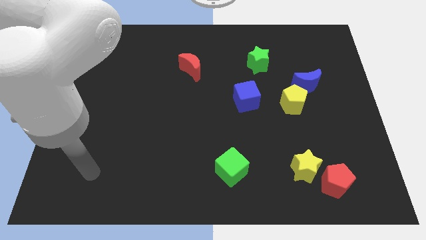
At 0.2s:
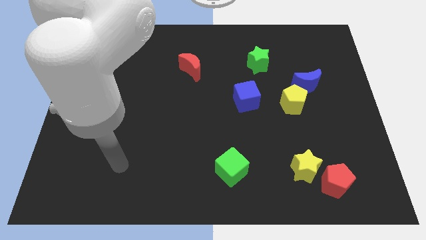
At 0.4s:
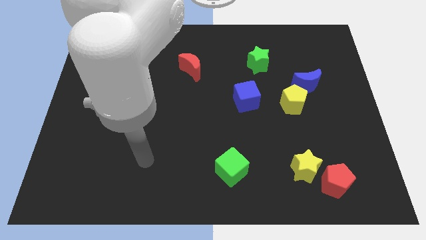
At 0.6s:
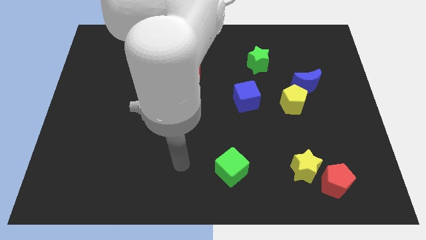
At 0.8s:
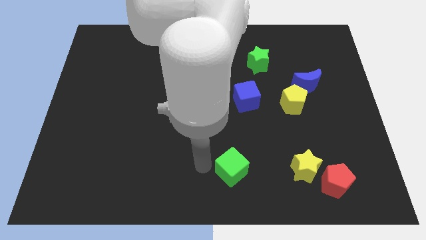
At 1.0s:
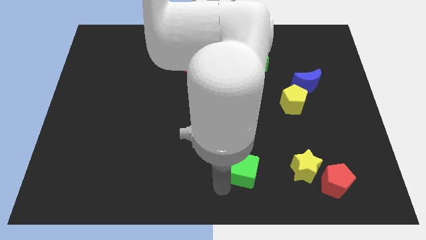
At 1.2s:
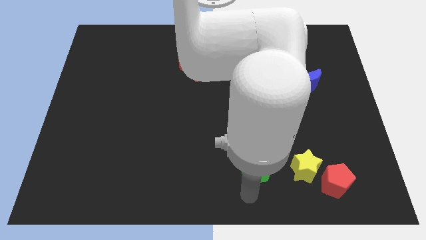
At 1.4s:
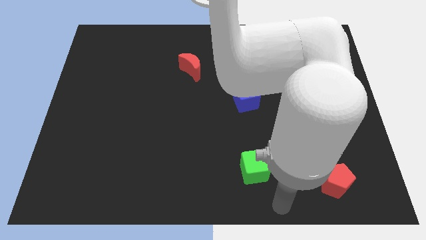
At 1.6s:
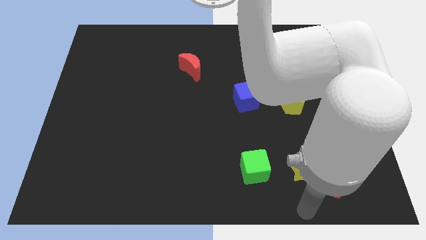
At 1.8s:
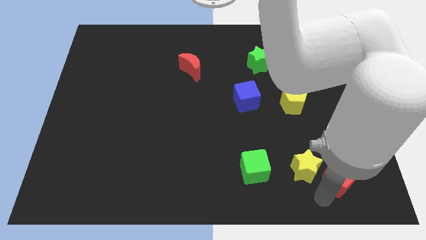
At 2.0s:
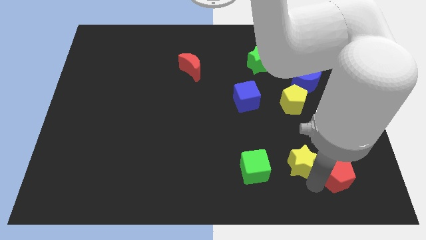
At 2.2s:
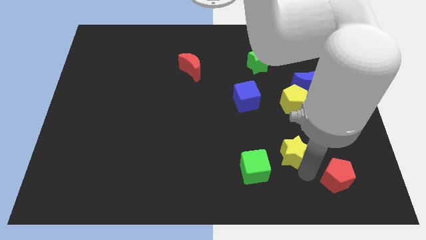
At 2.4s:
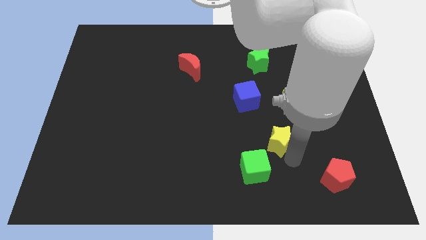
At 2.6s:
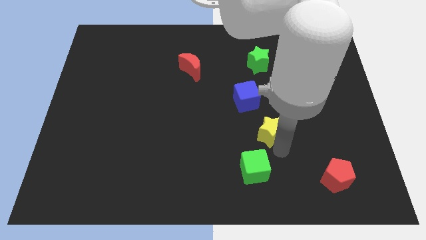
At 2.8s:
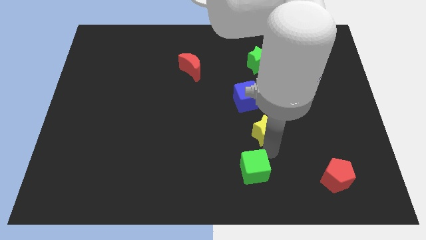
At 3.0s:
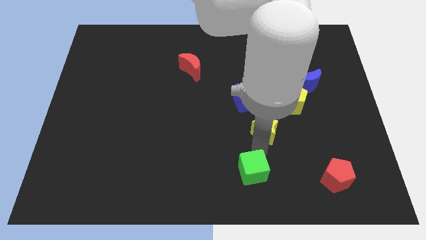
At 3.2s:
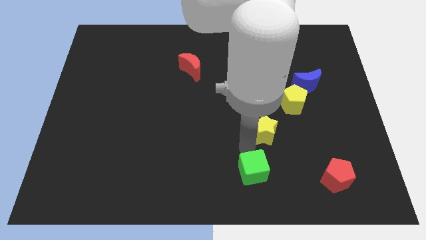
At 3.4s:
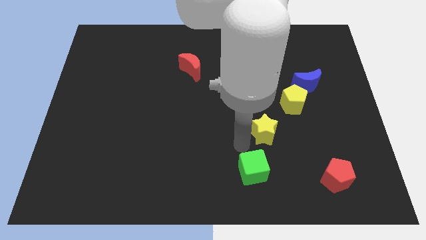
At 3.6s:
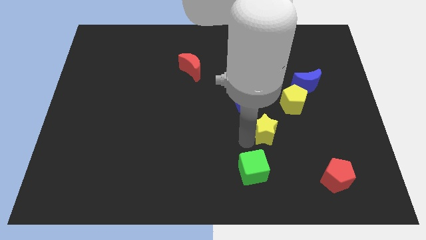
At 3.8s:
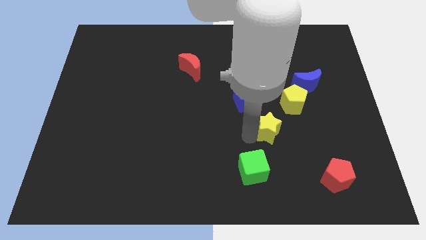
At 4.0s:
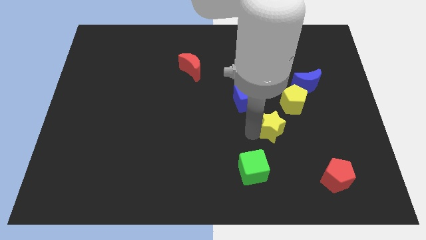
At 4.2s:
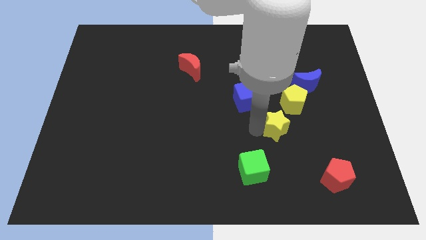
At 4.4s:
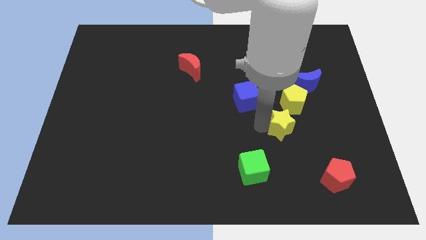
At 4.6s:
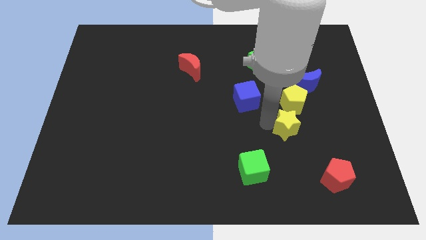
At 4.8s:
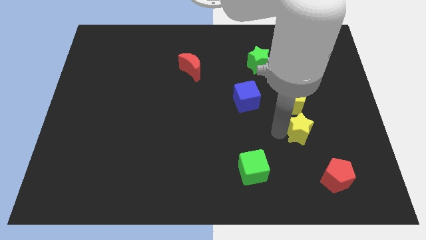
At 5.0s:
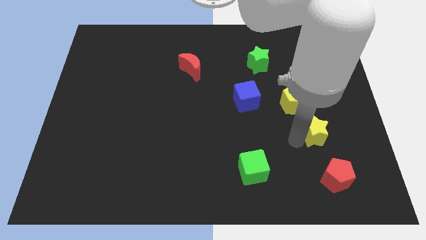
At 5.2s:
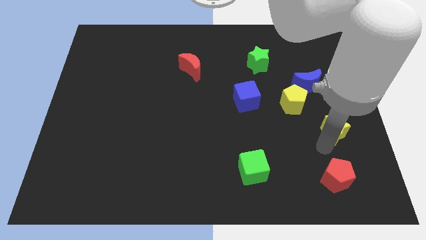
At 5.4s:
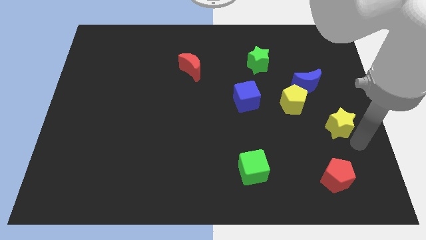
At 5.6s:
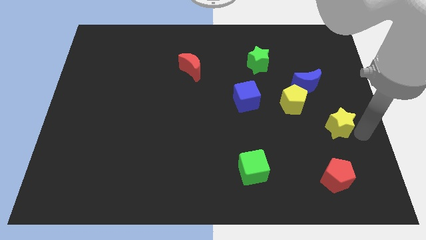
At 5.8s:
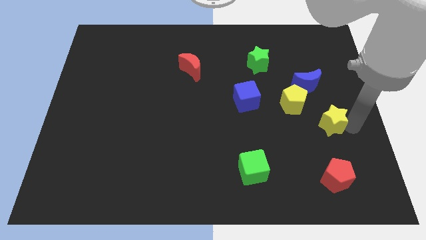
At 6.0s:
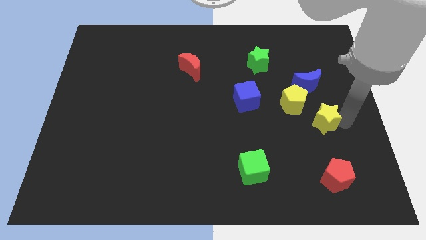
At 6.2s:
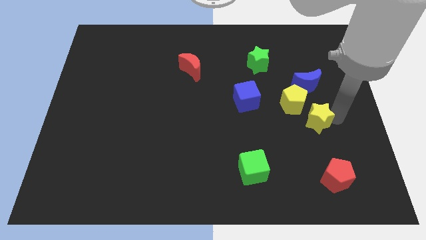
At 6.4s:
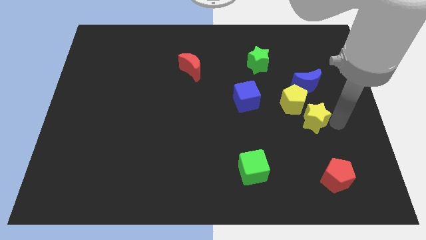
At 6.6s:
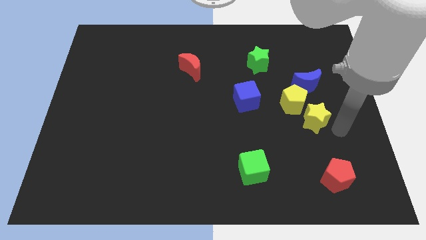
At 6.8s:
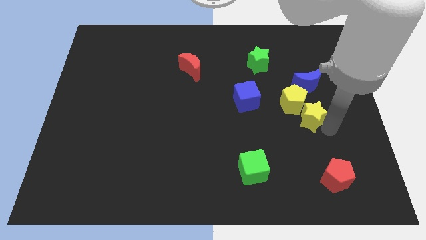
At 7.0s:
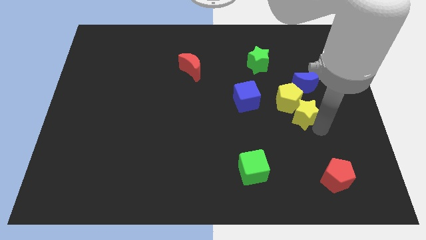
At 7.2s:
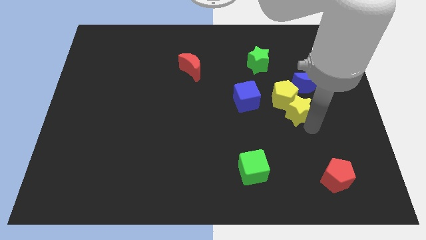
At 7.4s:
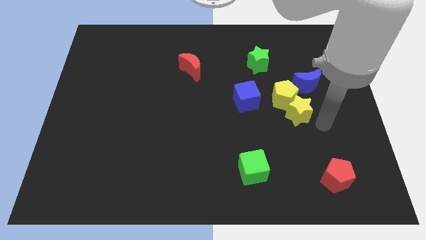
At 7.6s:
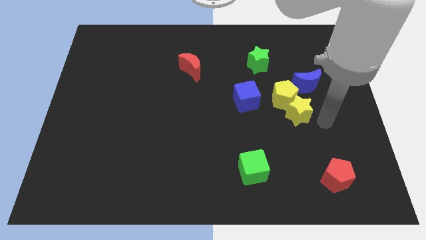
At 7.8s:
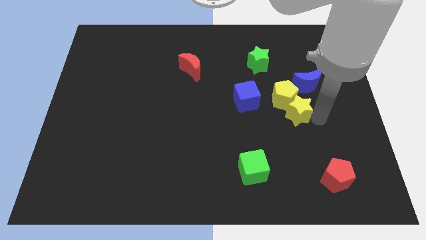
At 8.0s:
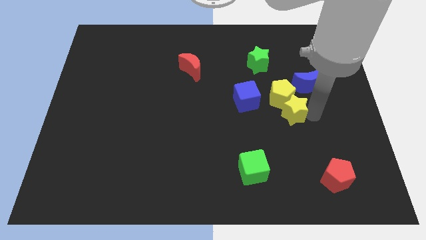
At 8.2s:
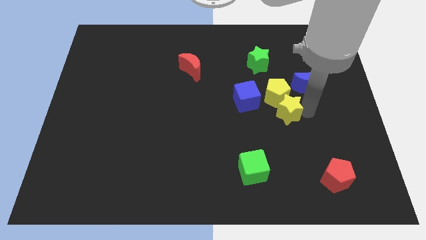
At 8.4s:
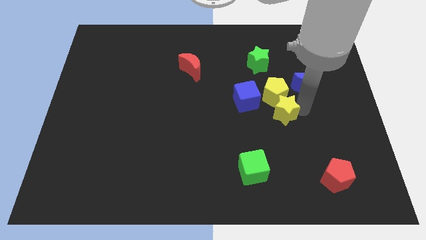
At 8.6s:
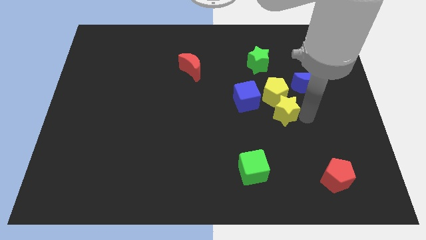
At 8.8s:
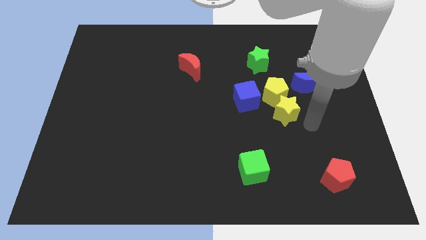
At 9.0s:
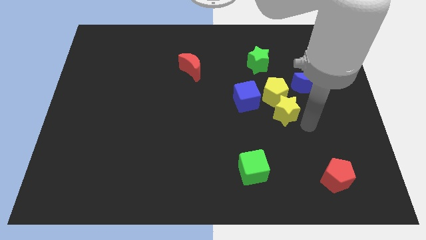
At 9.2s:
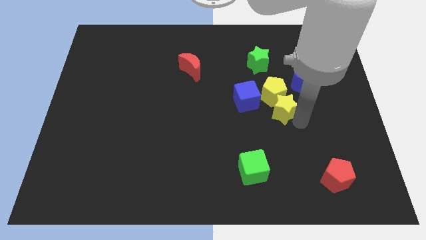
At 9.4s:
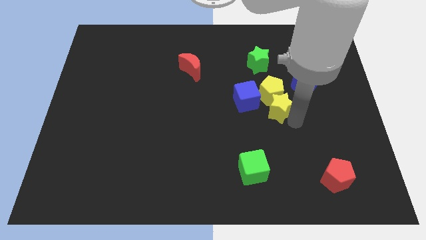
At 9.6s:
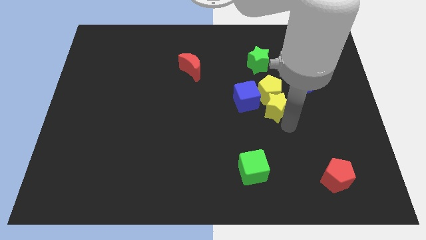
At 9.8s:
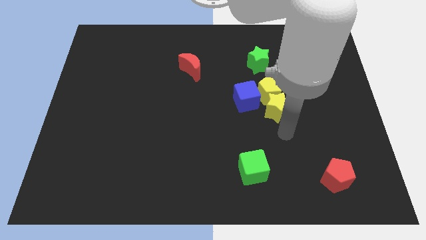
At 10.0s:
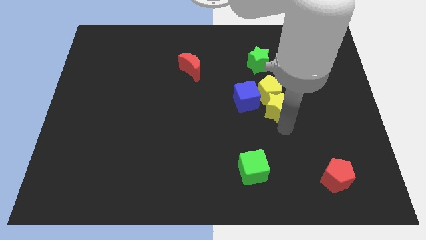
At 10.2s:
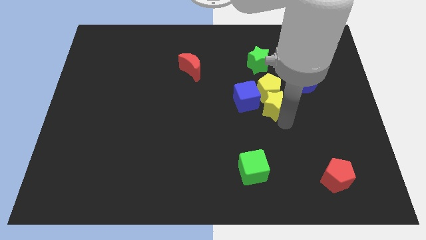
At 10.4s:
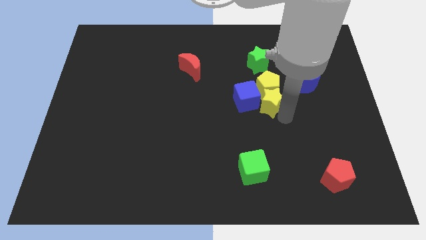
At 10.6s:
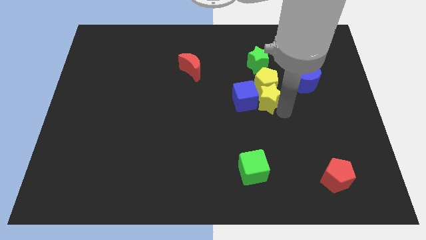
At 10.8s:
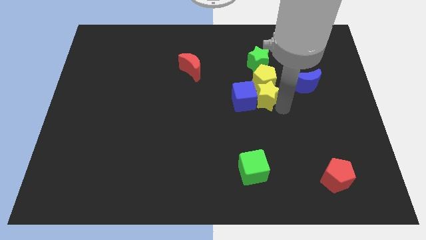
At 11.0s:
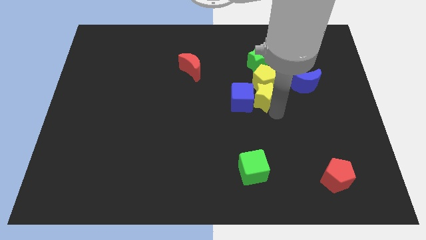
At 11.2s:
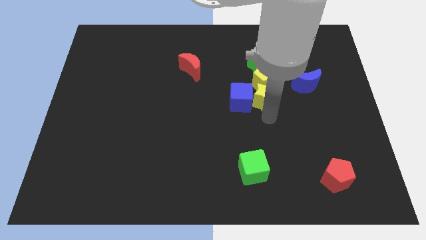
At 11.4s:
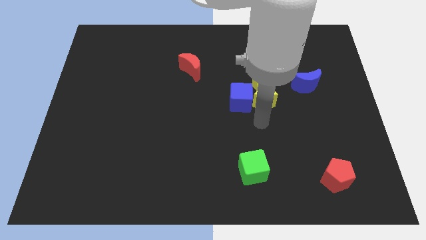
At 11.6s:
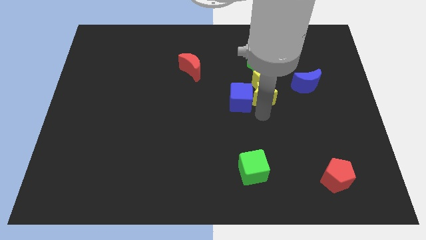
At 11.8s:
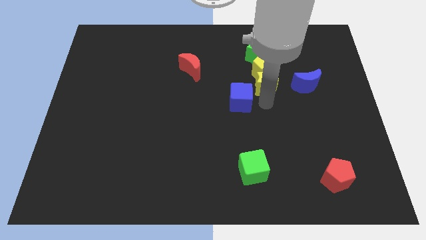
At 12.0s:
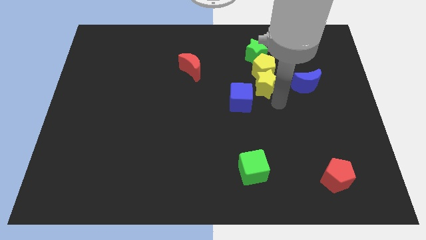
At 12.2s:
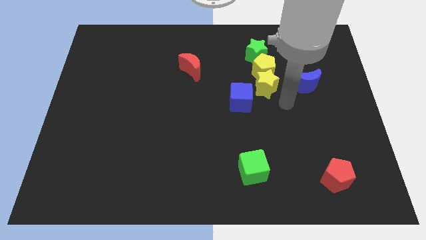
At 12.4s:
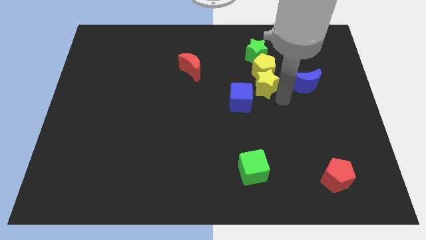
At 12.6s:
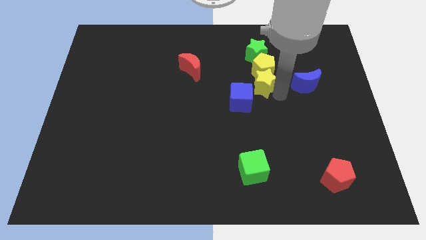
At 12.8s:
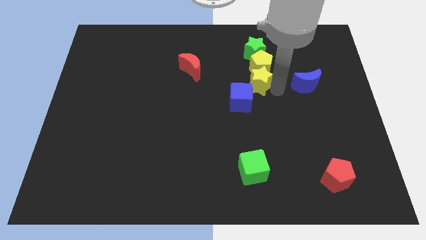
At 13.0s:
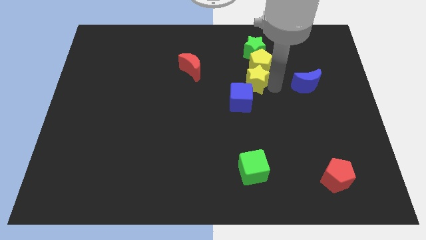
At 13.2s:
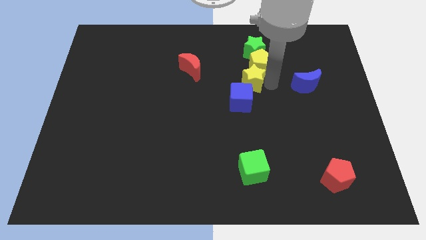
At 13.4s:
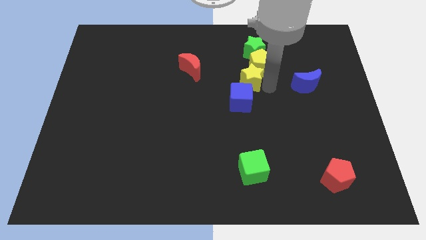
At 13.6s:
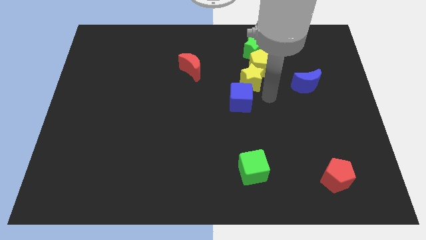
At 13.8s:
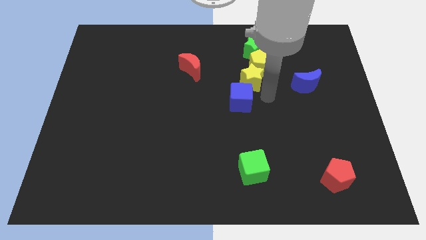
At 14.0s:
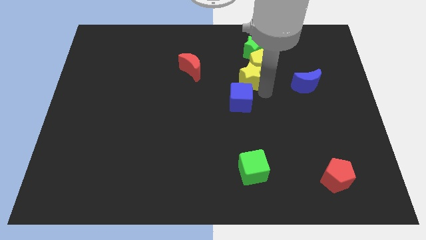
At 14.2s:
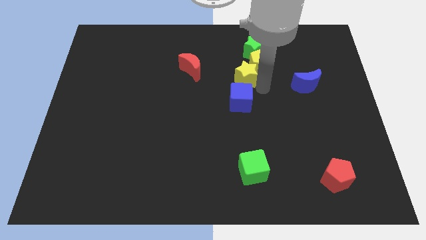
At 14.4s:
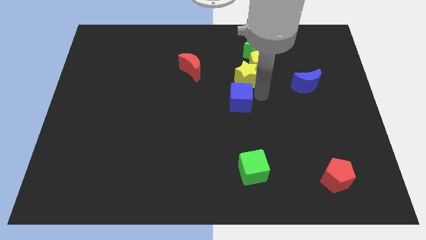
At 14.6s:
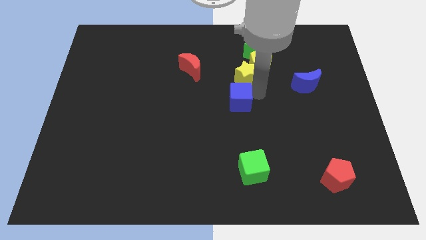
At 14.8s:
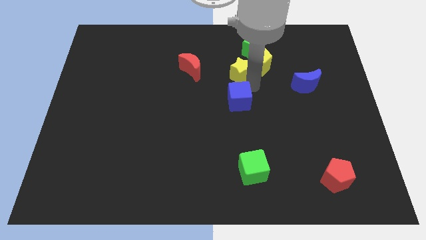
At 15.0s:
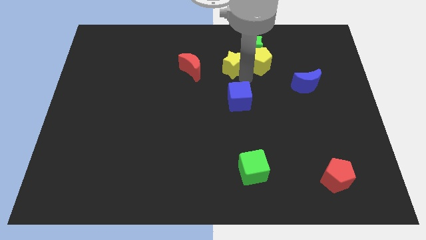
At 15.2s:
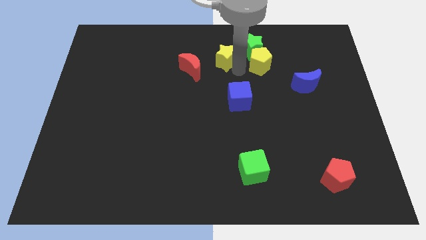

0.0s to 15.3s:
move the yellow star to the top right side of the red moon

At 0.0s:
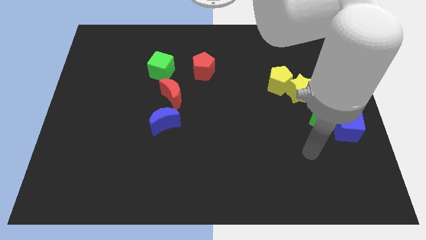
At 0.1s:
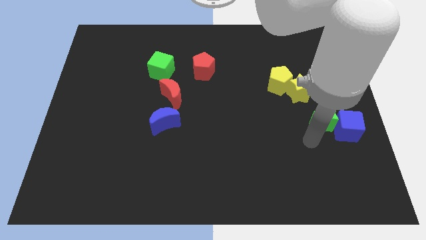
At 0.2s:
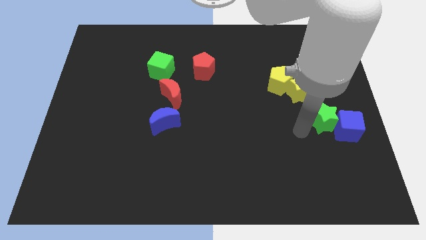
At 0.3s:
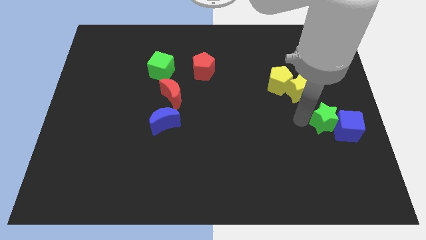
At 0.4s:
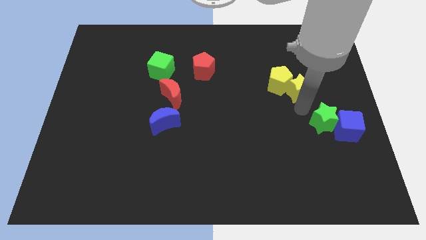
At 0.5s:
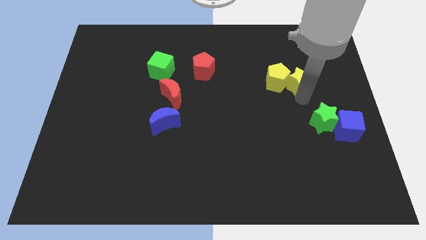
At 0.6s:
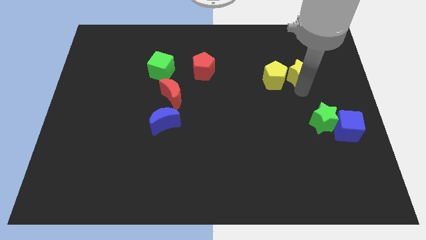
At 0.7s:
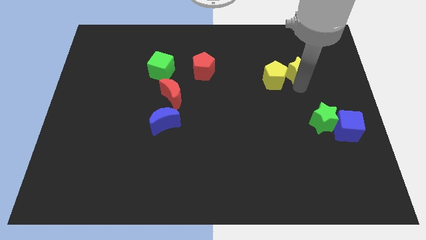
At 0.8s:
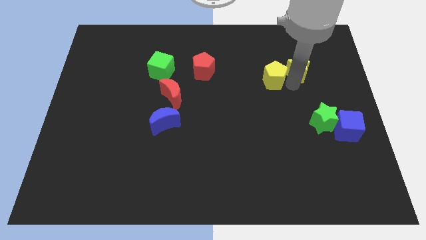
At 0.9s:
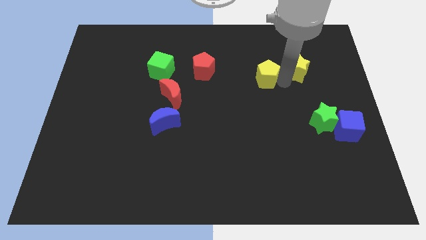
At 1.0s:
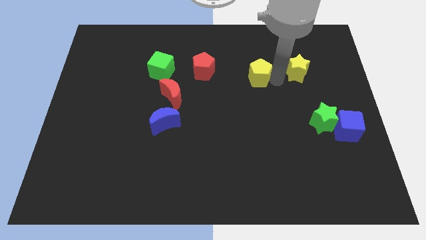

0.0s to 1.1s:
put the yellow pentagon to the right of the red pentagon
